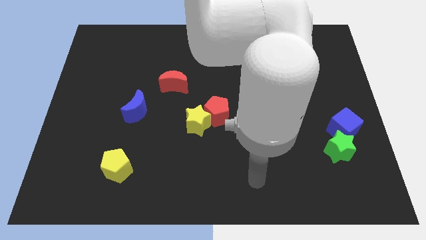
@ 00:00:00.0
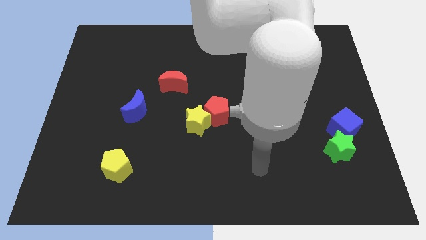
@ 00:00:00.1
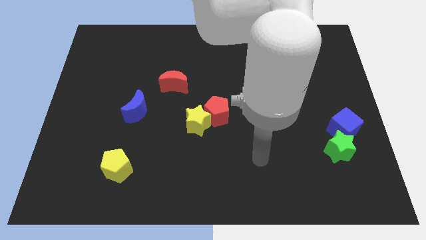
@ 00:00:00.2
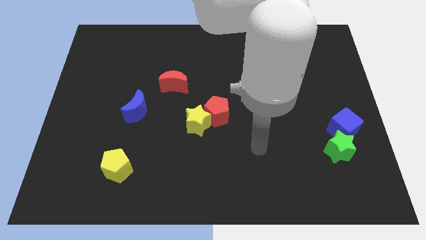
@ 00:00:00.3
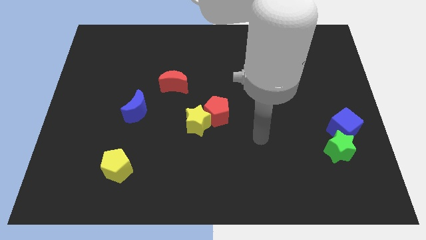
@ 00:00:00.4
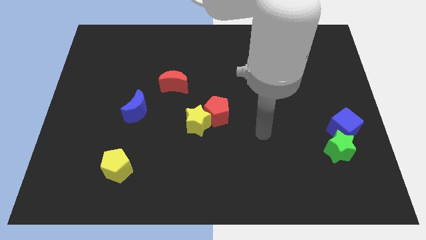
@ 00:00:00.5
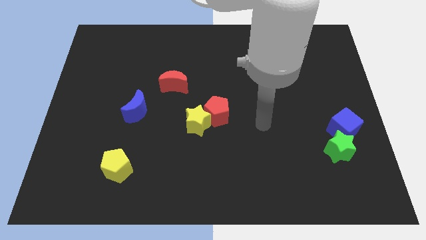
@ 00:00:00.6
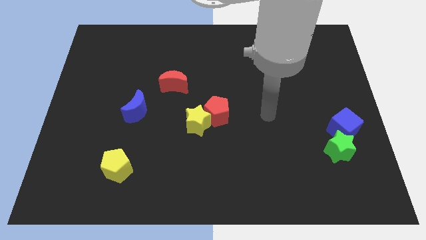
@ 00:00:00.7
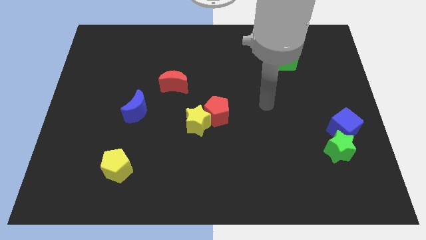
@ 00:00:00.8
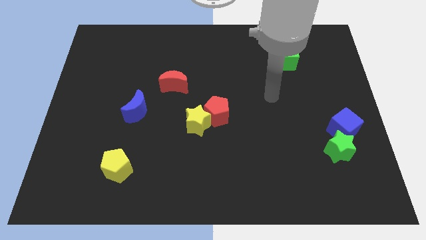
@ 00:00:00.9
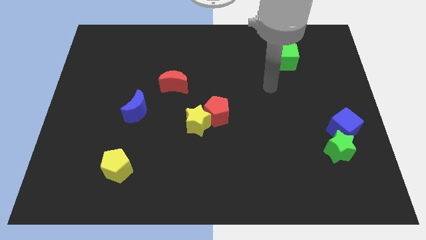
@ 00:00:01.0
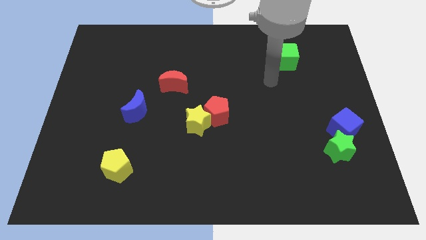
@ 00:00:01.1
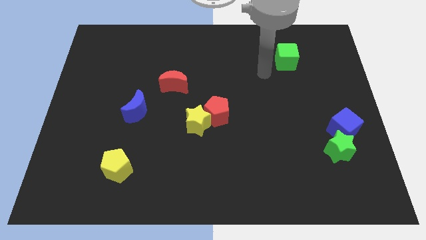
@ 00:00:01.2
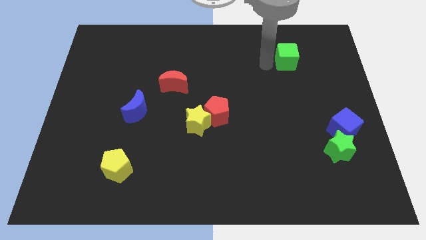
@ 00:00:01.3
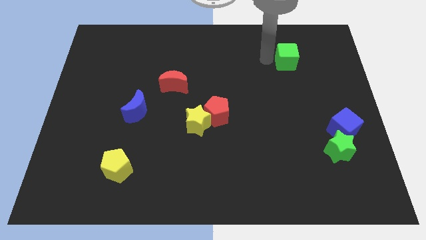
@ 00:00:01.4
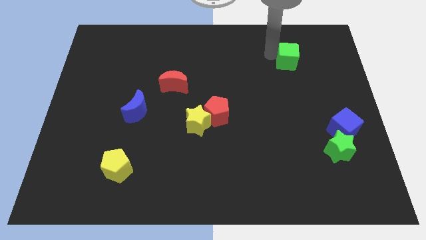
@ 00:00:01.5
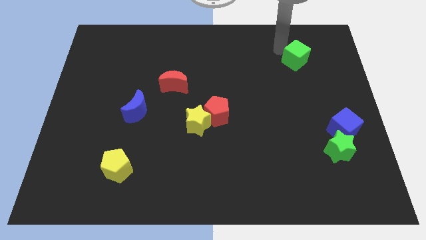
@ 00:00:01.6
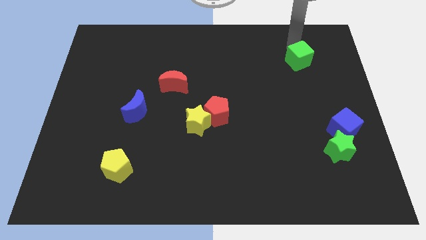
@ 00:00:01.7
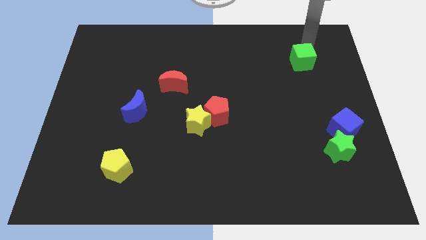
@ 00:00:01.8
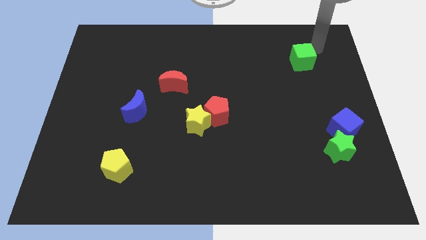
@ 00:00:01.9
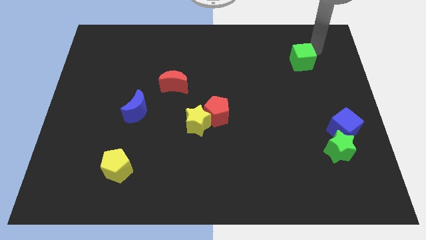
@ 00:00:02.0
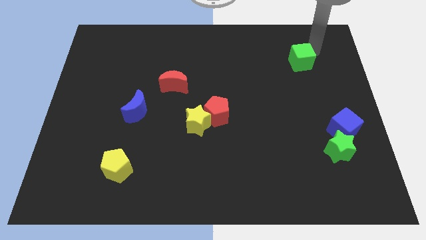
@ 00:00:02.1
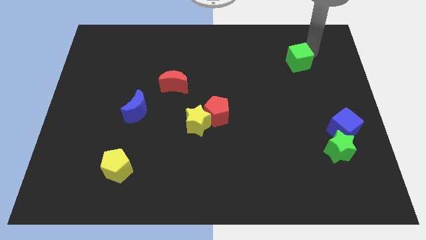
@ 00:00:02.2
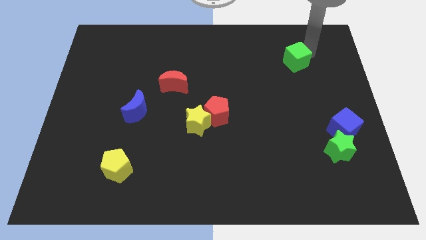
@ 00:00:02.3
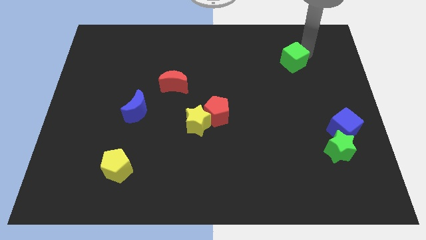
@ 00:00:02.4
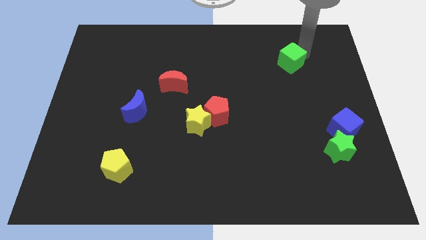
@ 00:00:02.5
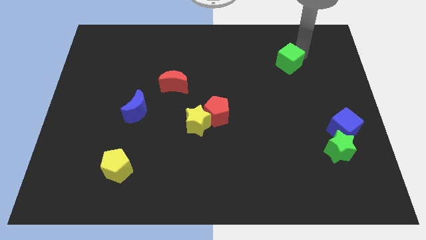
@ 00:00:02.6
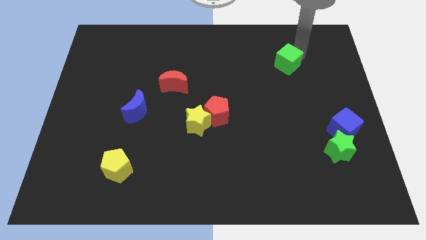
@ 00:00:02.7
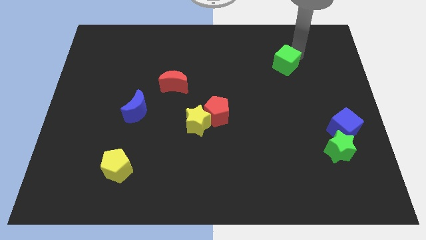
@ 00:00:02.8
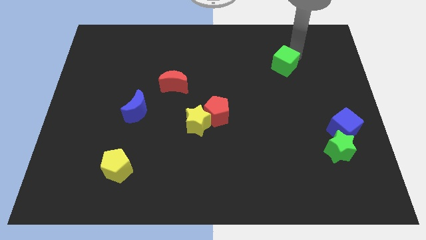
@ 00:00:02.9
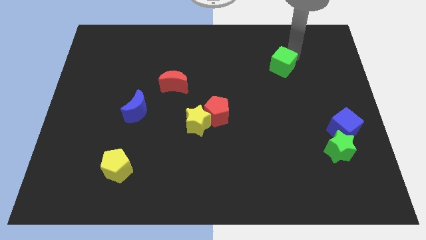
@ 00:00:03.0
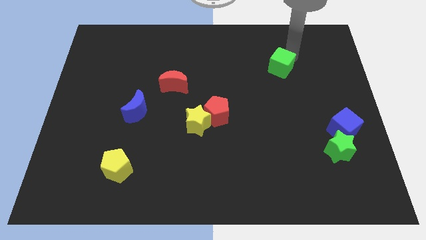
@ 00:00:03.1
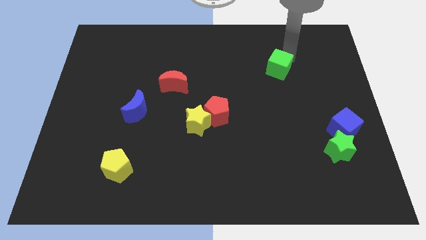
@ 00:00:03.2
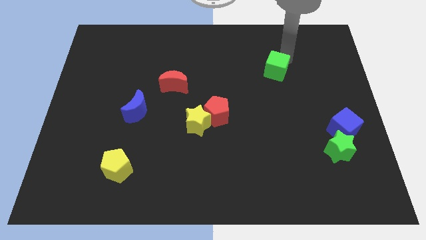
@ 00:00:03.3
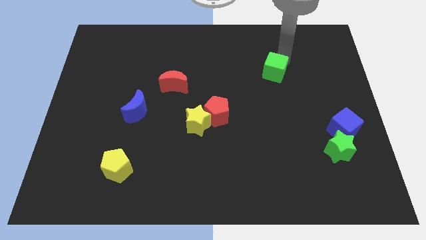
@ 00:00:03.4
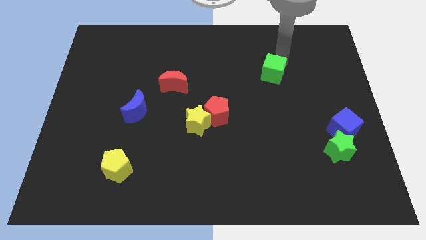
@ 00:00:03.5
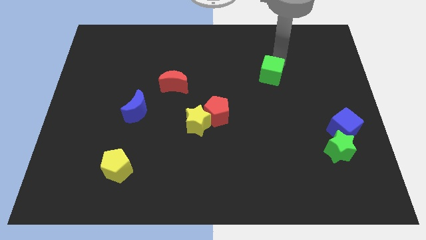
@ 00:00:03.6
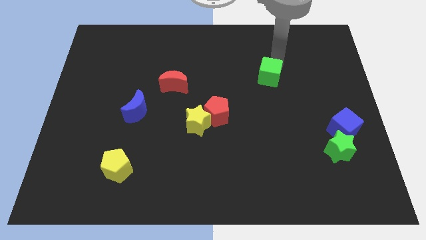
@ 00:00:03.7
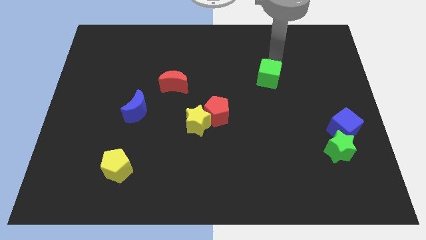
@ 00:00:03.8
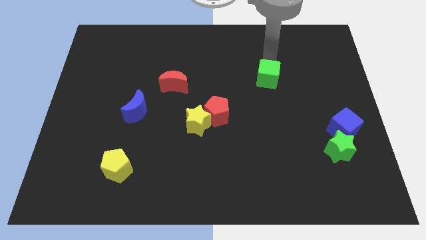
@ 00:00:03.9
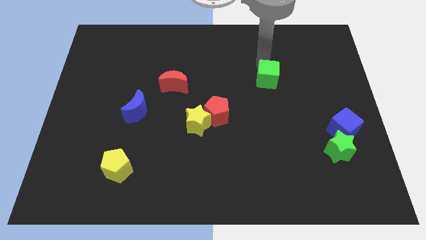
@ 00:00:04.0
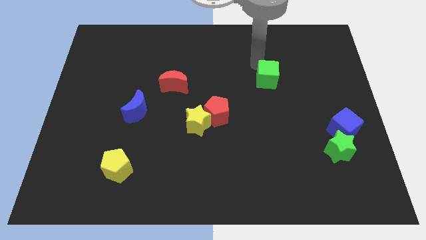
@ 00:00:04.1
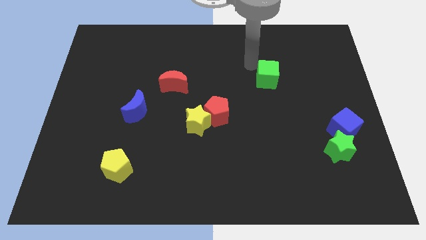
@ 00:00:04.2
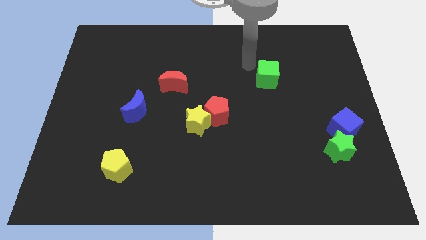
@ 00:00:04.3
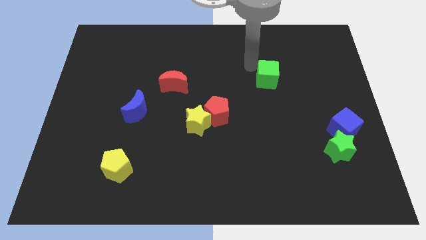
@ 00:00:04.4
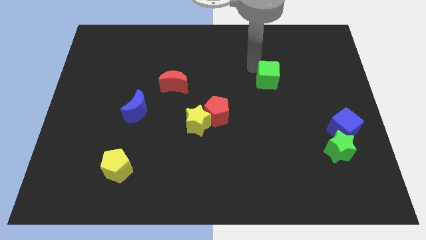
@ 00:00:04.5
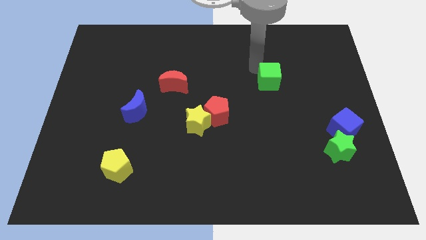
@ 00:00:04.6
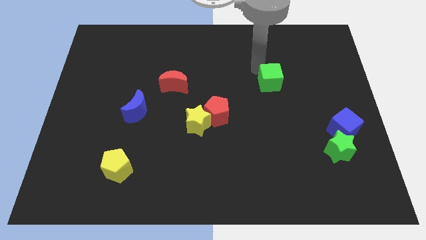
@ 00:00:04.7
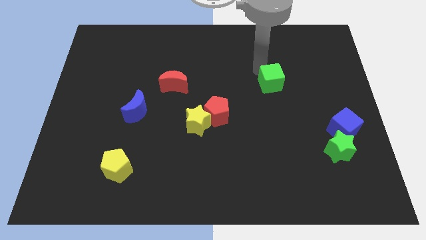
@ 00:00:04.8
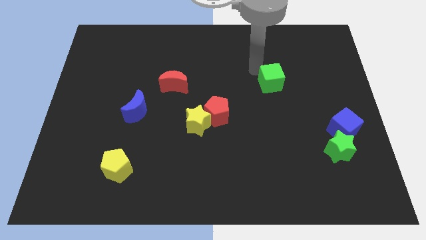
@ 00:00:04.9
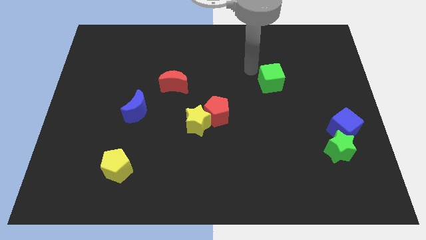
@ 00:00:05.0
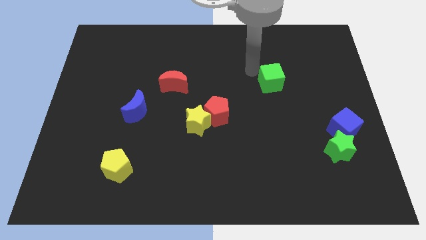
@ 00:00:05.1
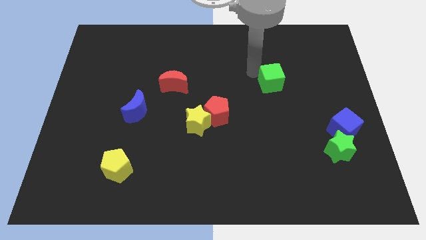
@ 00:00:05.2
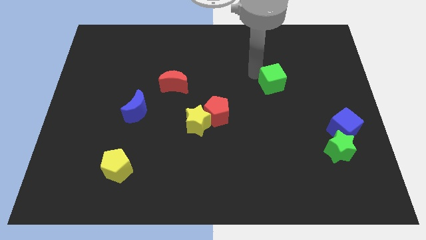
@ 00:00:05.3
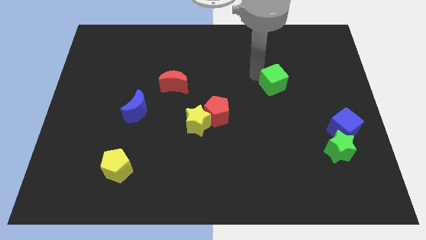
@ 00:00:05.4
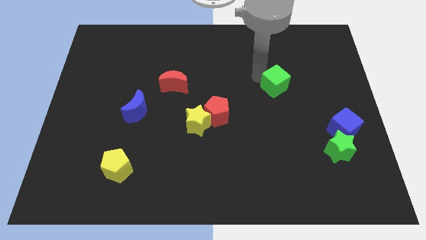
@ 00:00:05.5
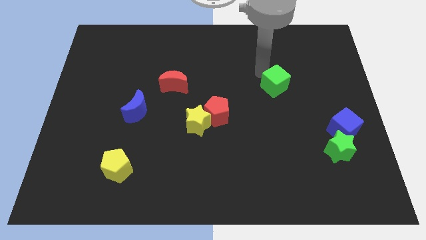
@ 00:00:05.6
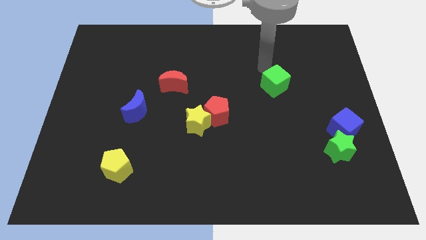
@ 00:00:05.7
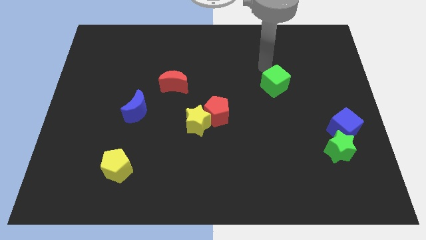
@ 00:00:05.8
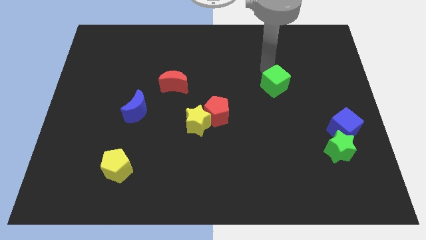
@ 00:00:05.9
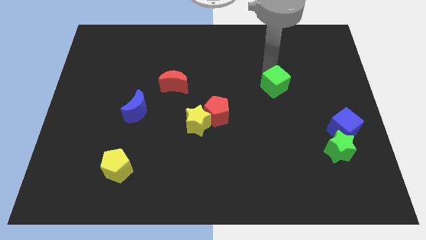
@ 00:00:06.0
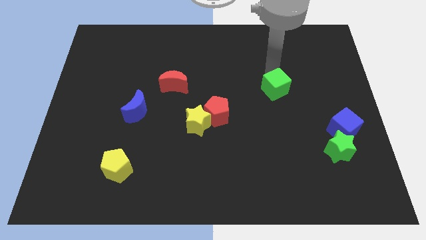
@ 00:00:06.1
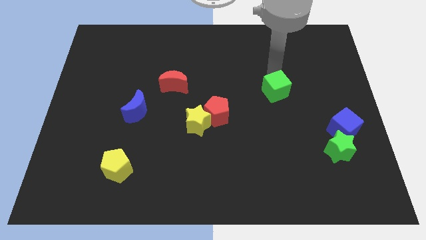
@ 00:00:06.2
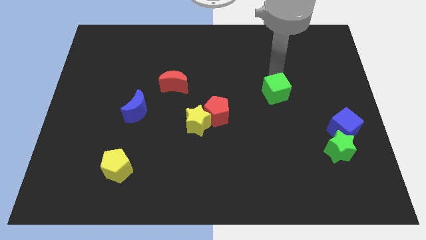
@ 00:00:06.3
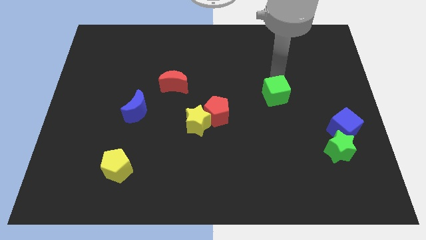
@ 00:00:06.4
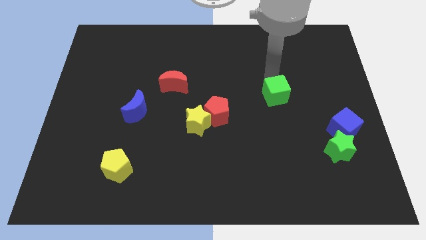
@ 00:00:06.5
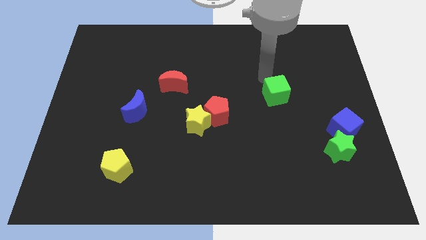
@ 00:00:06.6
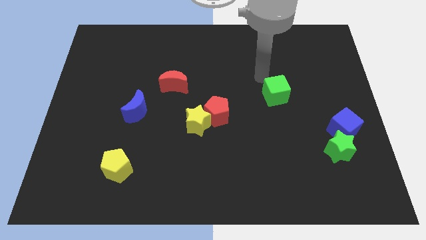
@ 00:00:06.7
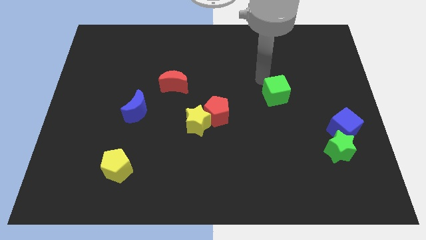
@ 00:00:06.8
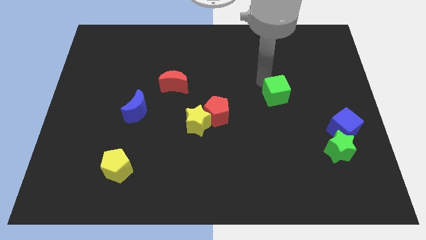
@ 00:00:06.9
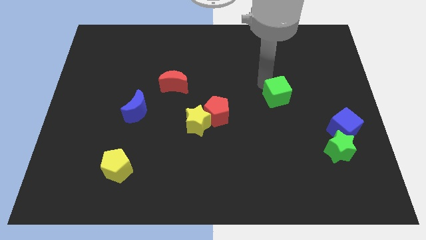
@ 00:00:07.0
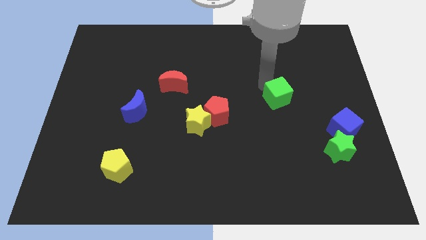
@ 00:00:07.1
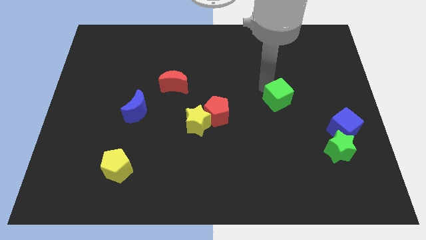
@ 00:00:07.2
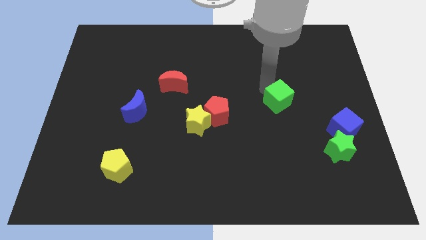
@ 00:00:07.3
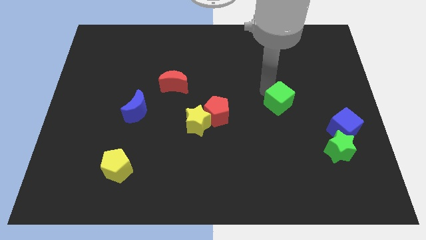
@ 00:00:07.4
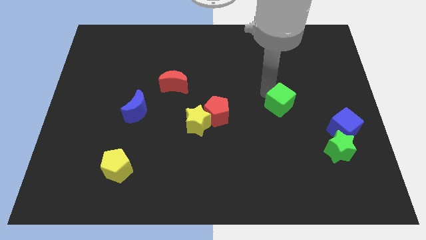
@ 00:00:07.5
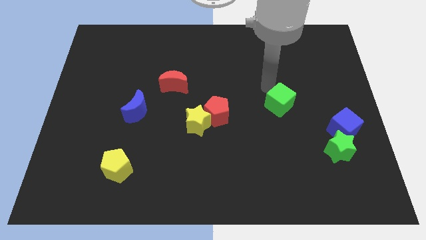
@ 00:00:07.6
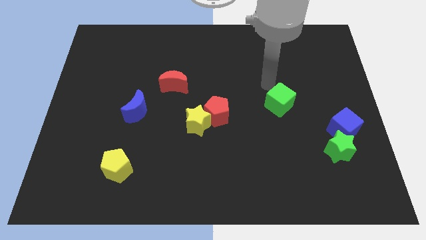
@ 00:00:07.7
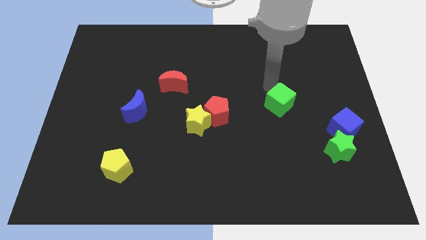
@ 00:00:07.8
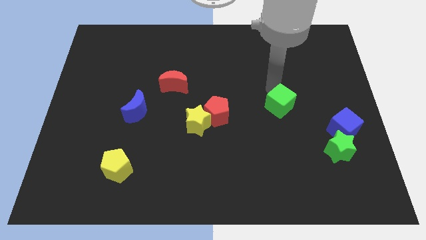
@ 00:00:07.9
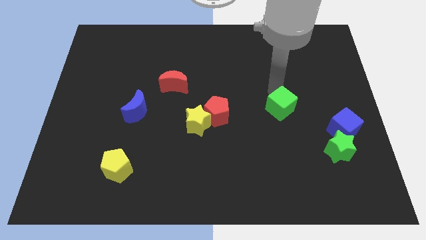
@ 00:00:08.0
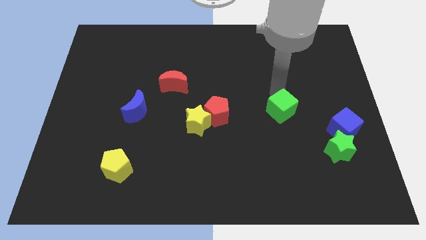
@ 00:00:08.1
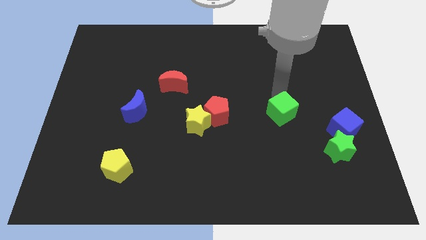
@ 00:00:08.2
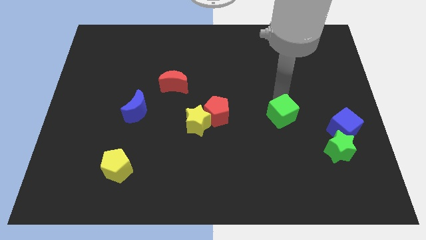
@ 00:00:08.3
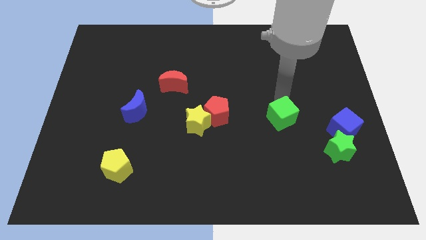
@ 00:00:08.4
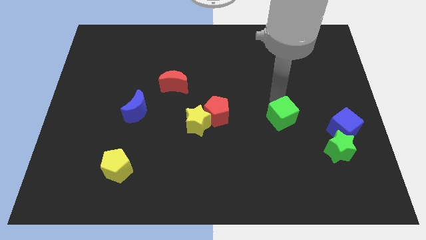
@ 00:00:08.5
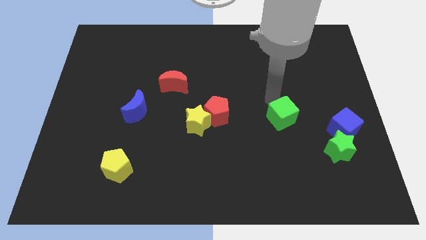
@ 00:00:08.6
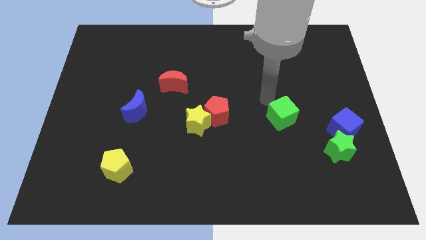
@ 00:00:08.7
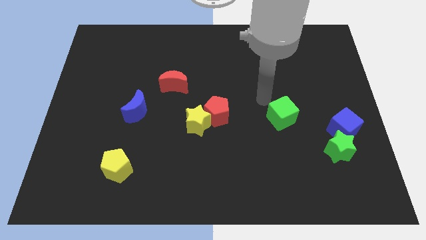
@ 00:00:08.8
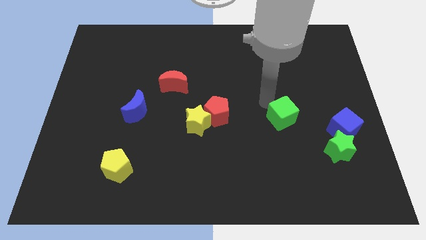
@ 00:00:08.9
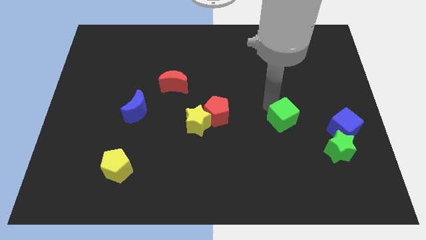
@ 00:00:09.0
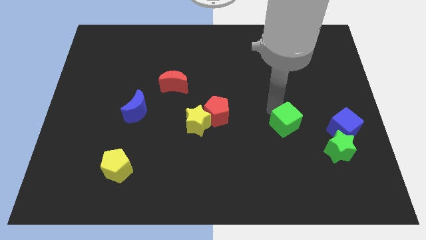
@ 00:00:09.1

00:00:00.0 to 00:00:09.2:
push the green cube down
